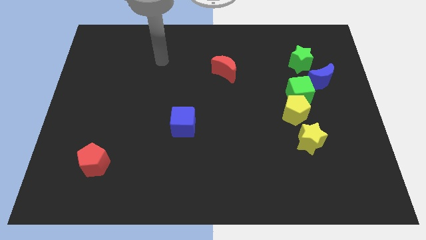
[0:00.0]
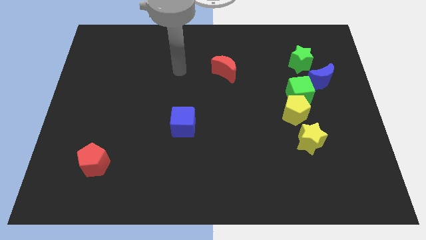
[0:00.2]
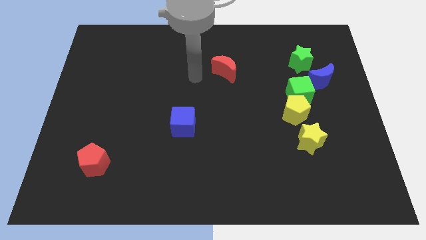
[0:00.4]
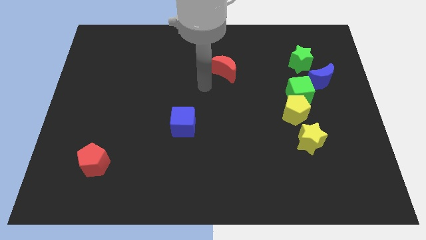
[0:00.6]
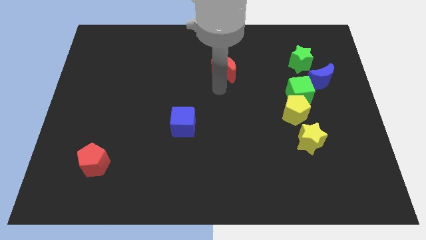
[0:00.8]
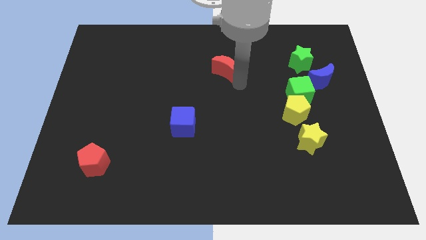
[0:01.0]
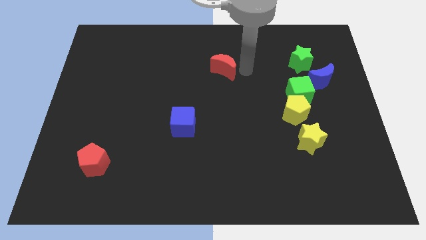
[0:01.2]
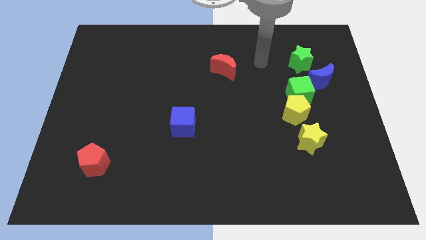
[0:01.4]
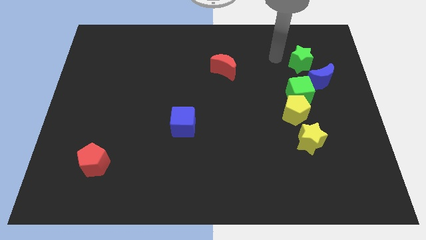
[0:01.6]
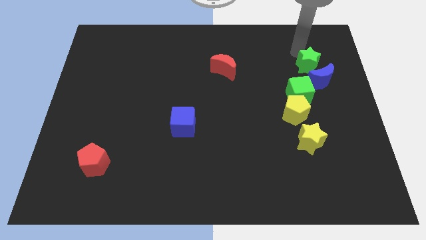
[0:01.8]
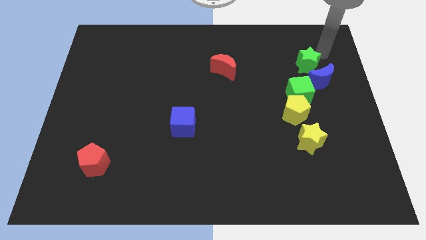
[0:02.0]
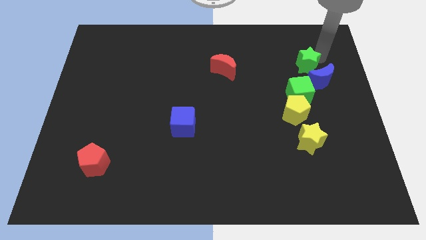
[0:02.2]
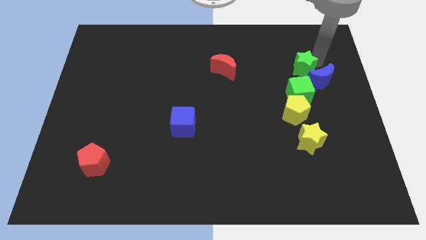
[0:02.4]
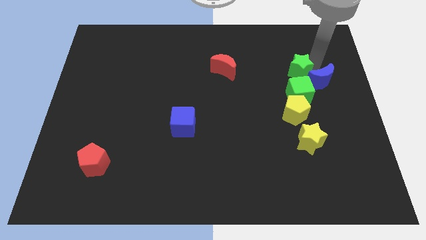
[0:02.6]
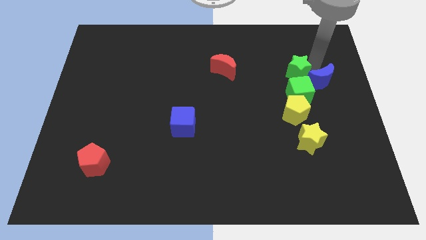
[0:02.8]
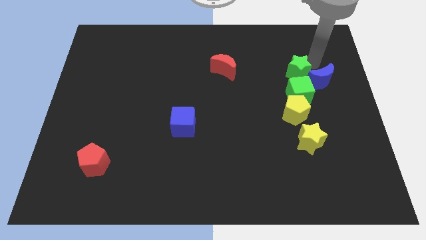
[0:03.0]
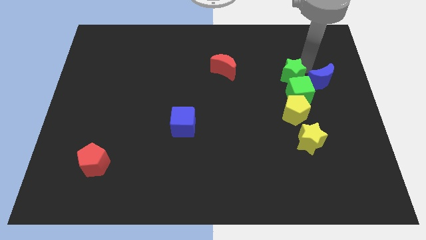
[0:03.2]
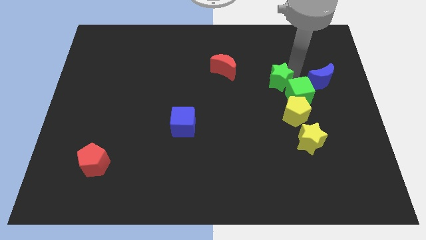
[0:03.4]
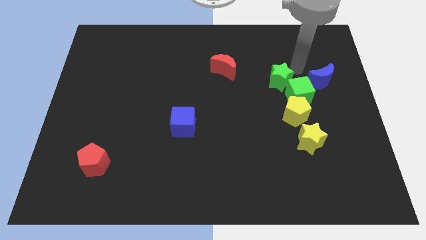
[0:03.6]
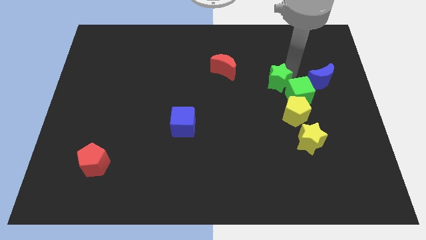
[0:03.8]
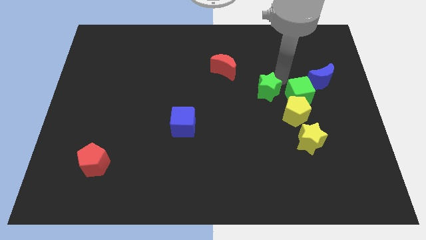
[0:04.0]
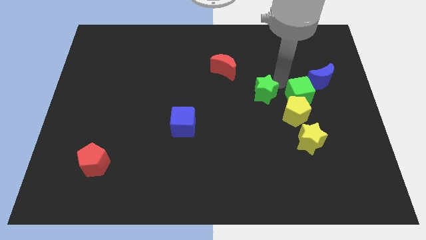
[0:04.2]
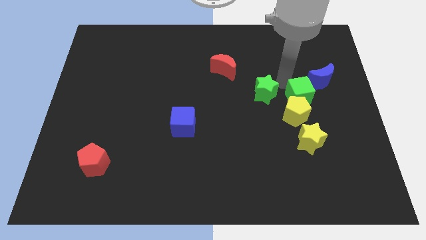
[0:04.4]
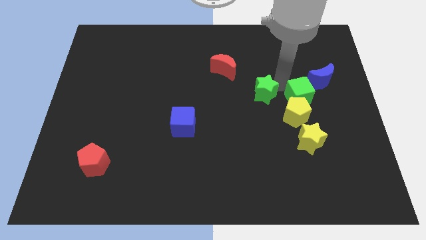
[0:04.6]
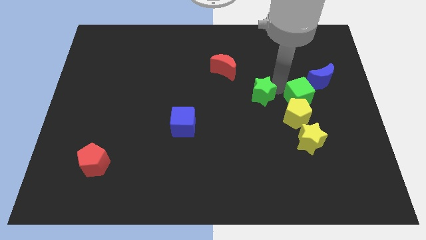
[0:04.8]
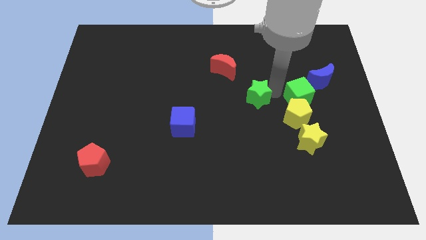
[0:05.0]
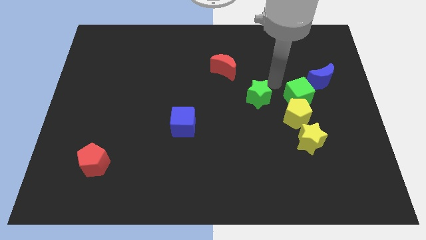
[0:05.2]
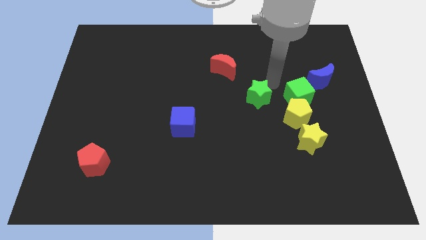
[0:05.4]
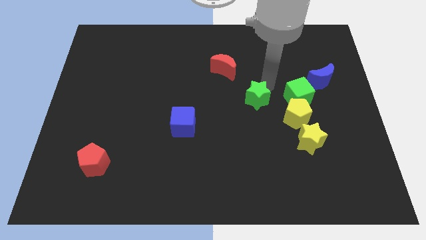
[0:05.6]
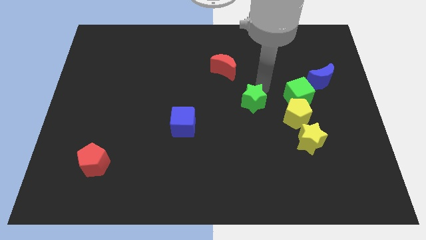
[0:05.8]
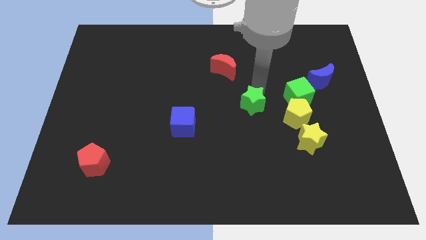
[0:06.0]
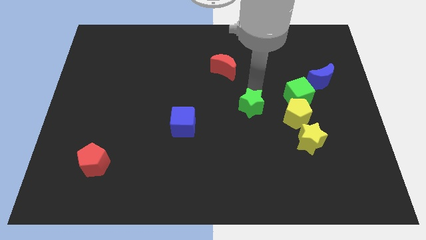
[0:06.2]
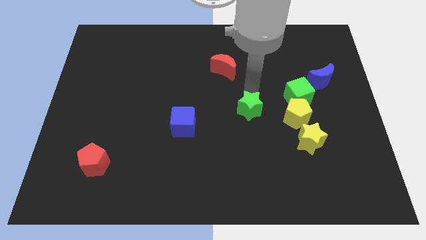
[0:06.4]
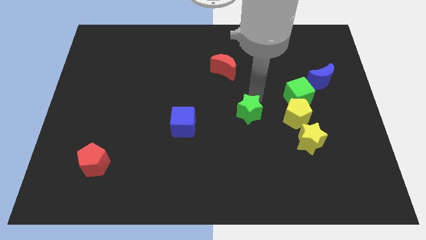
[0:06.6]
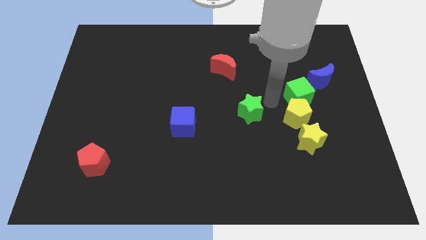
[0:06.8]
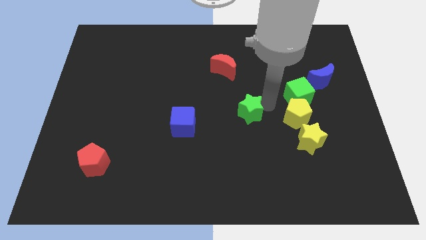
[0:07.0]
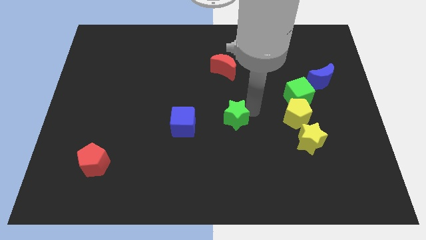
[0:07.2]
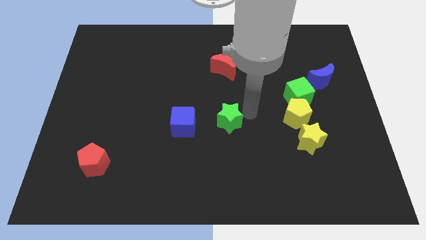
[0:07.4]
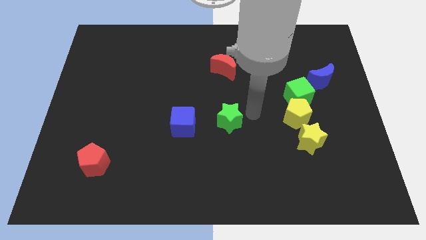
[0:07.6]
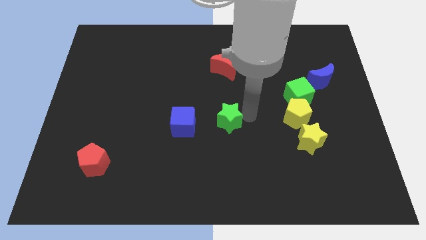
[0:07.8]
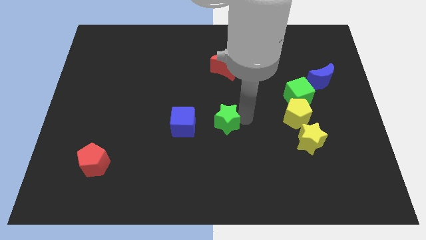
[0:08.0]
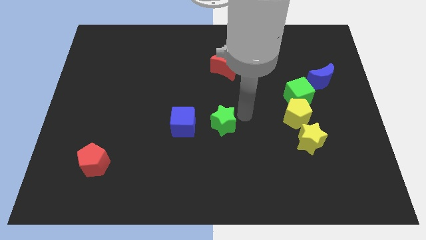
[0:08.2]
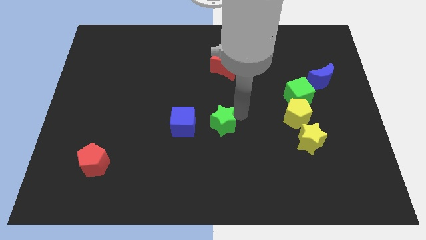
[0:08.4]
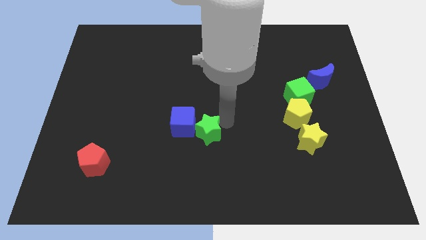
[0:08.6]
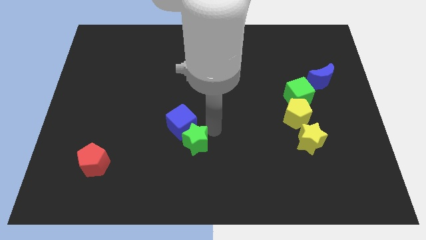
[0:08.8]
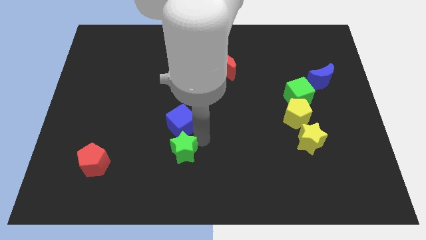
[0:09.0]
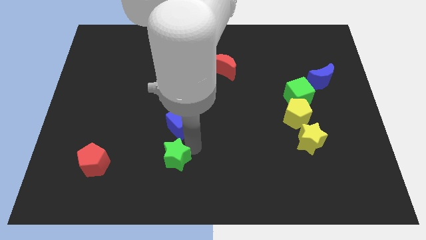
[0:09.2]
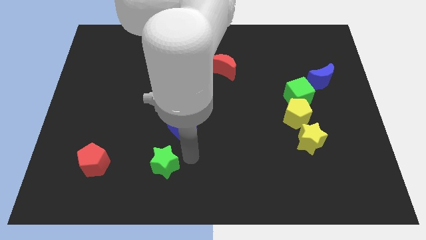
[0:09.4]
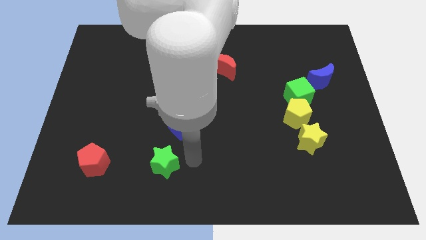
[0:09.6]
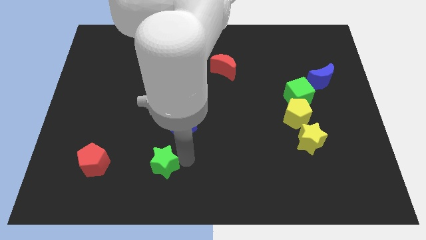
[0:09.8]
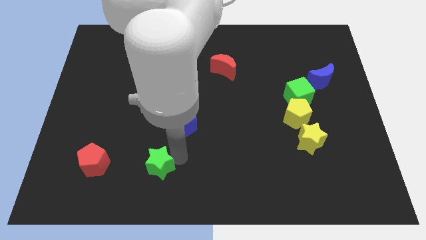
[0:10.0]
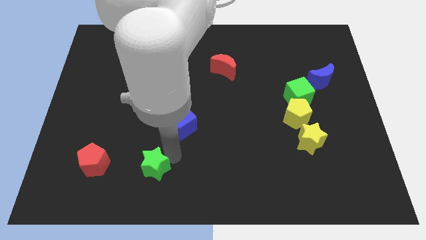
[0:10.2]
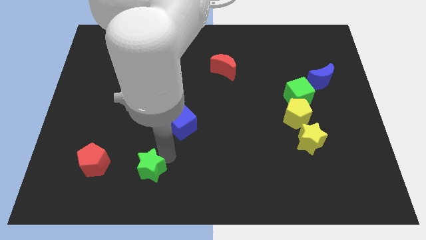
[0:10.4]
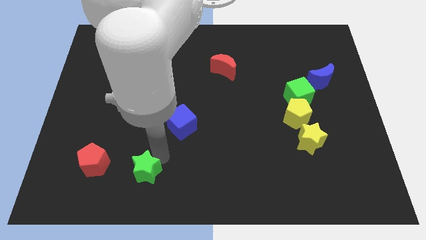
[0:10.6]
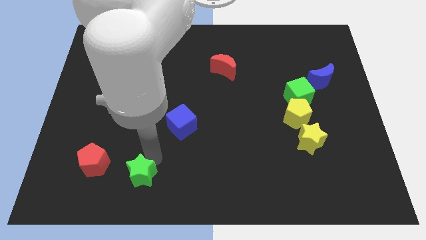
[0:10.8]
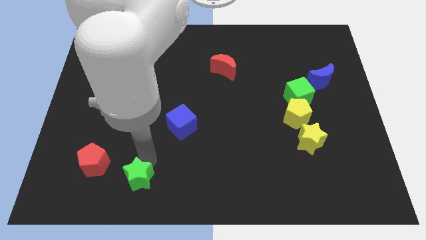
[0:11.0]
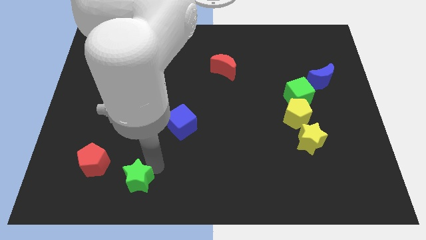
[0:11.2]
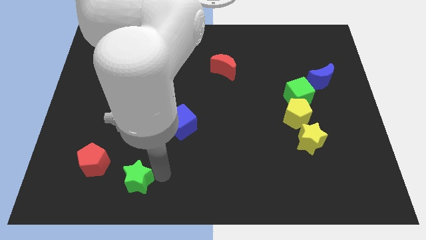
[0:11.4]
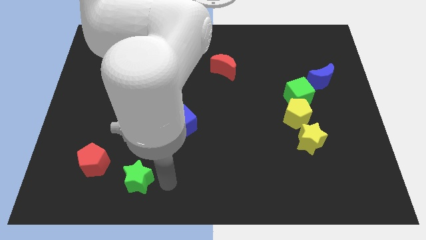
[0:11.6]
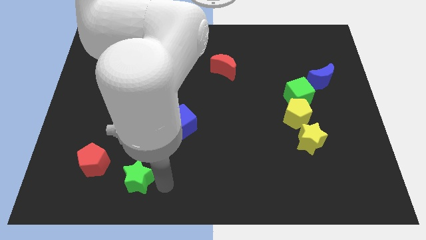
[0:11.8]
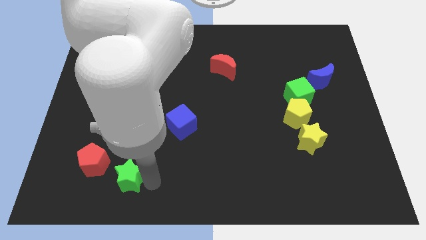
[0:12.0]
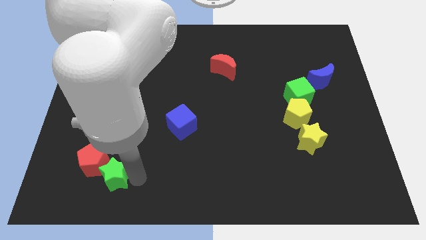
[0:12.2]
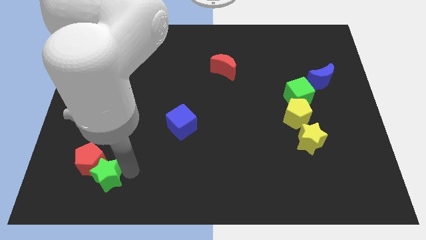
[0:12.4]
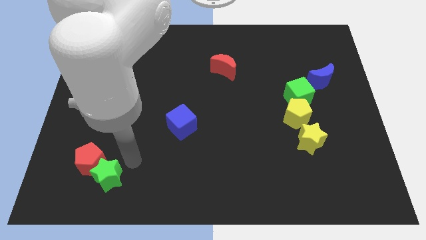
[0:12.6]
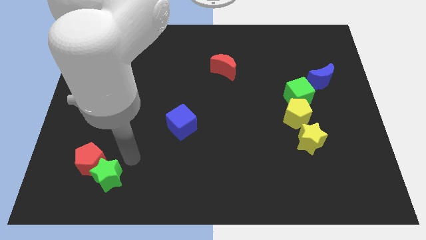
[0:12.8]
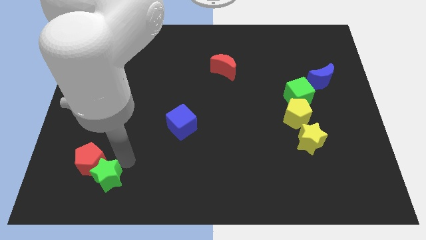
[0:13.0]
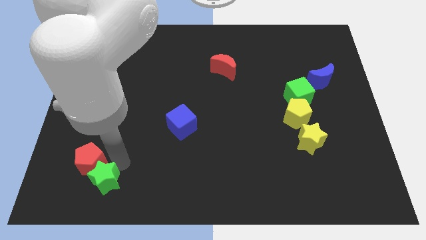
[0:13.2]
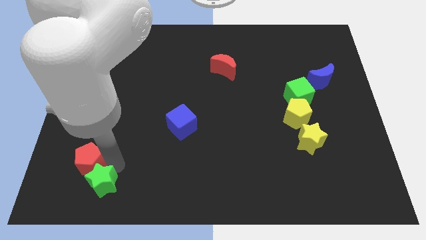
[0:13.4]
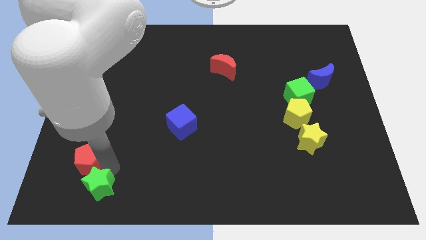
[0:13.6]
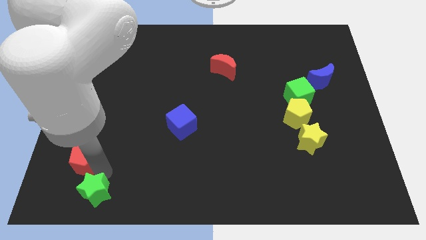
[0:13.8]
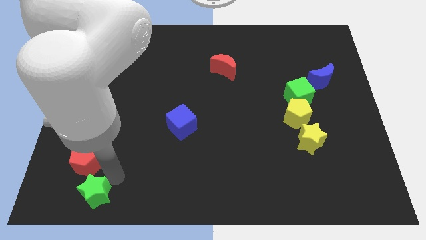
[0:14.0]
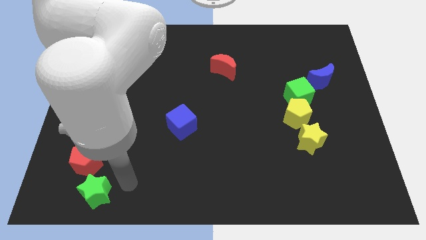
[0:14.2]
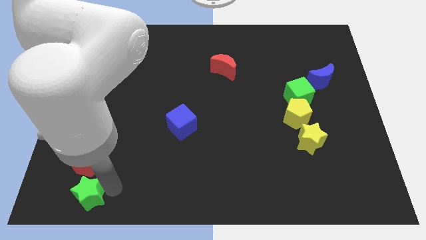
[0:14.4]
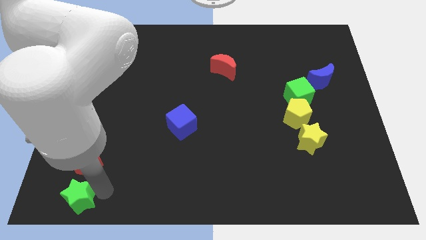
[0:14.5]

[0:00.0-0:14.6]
push the green star to the bottom left corner
